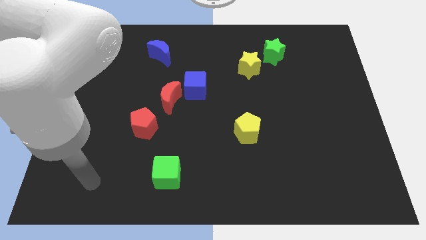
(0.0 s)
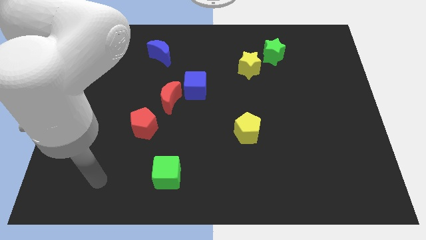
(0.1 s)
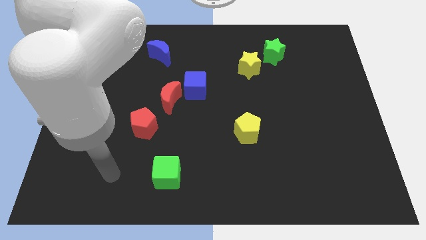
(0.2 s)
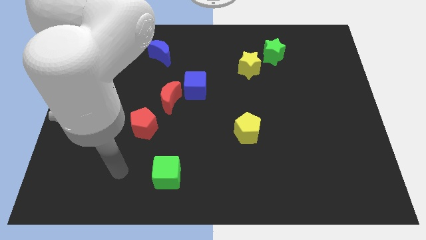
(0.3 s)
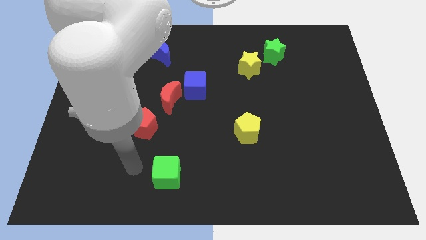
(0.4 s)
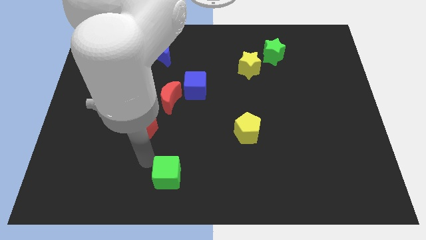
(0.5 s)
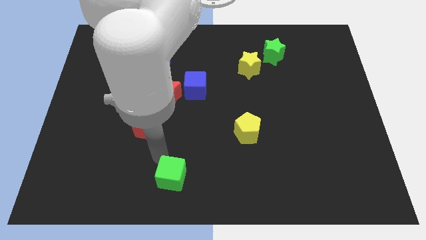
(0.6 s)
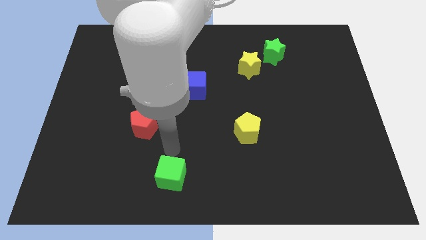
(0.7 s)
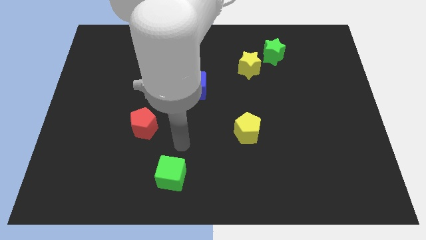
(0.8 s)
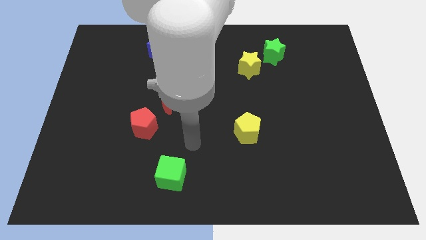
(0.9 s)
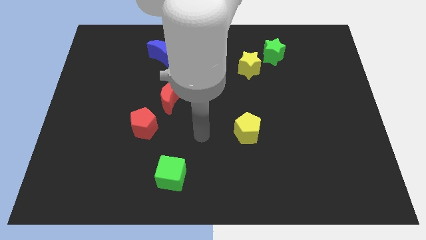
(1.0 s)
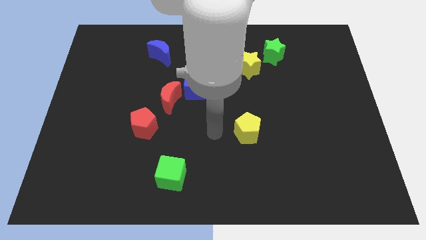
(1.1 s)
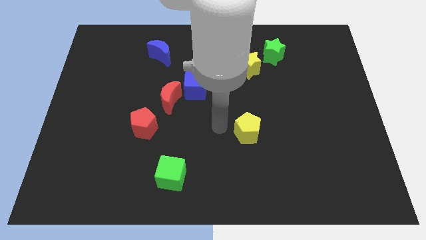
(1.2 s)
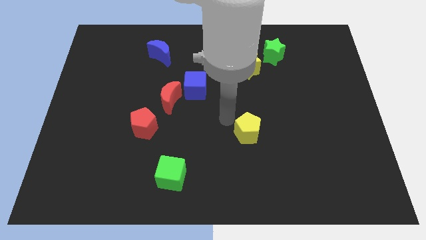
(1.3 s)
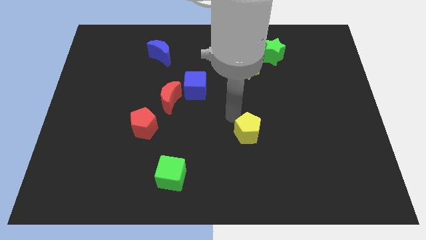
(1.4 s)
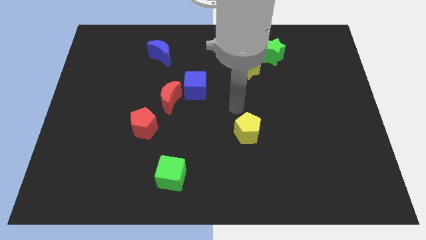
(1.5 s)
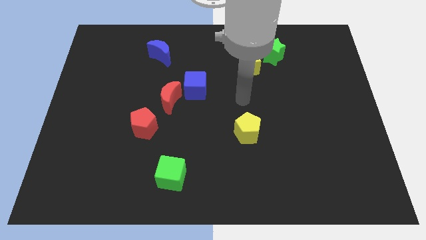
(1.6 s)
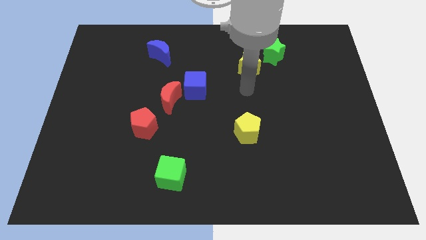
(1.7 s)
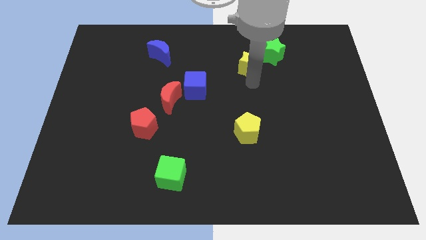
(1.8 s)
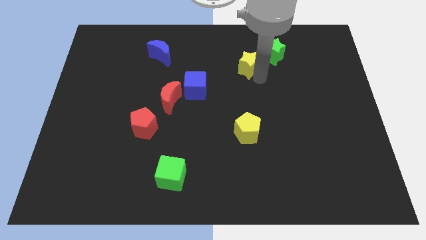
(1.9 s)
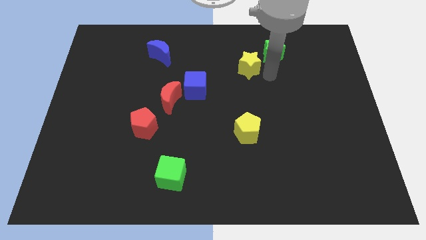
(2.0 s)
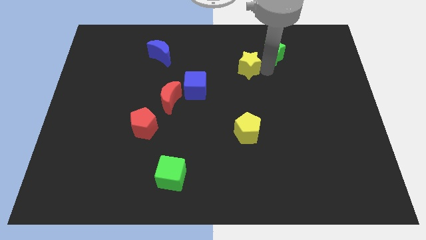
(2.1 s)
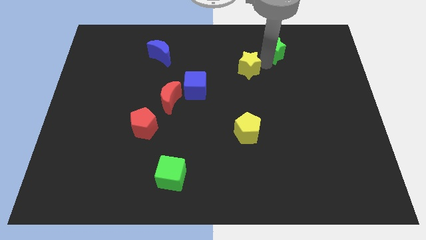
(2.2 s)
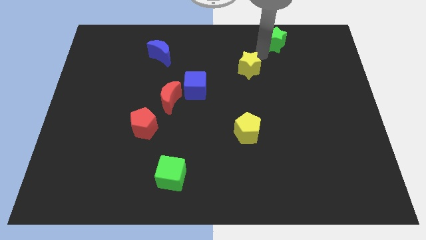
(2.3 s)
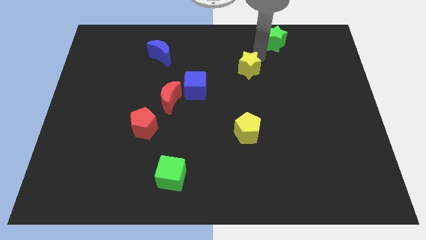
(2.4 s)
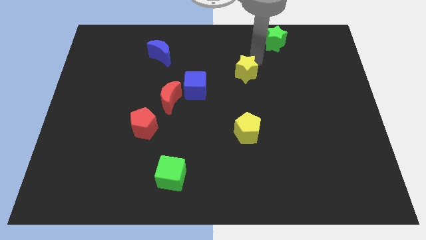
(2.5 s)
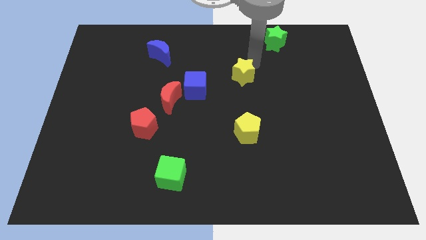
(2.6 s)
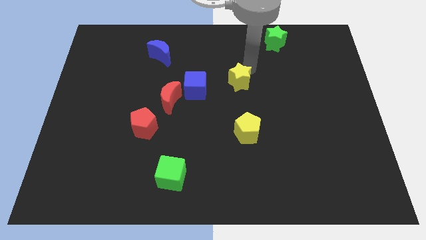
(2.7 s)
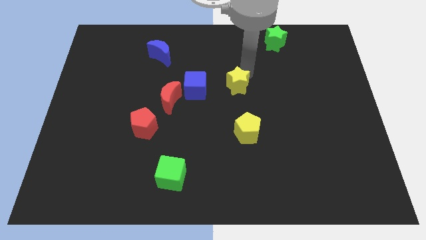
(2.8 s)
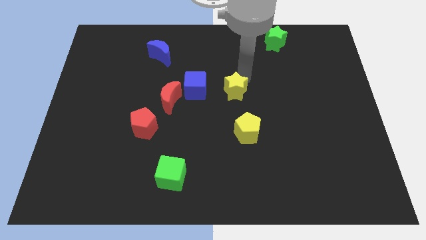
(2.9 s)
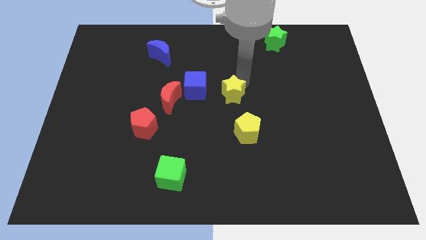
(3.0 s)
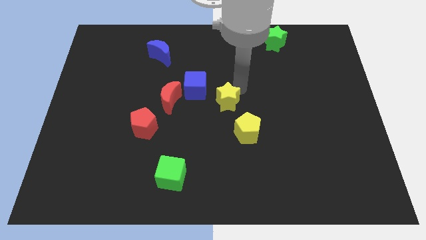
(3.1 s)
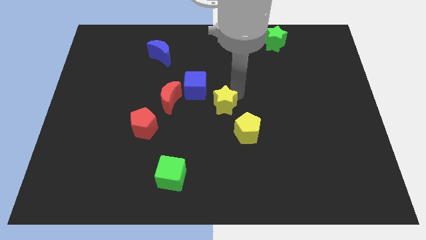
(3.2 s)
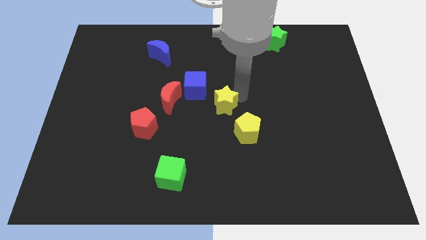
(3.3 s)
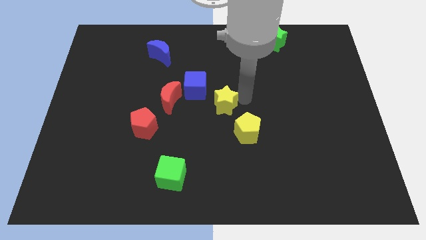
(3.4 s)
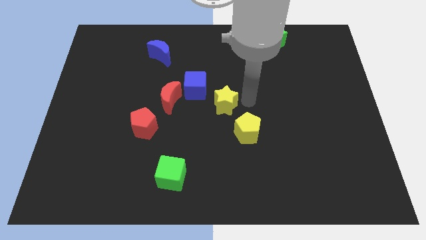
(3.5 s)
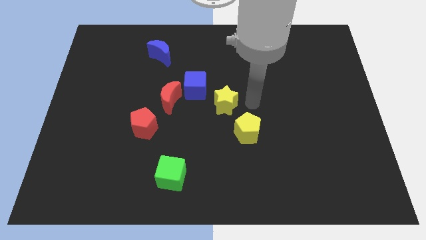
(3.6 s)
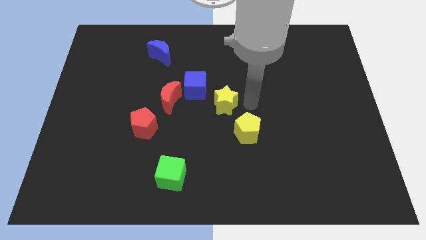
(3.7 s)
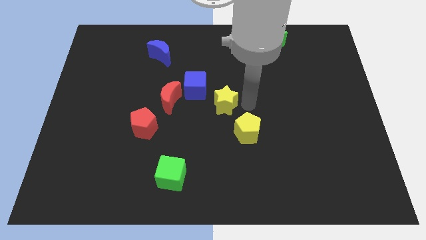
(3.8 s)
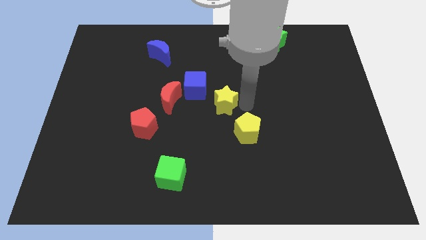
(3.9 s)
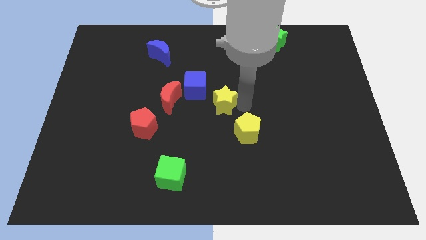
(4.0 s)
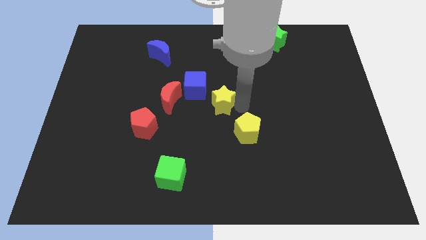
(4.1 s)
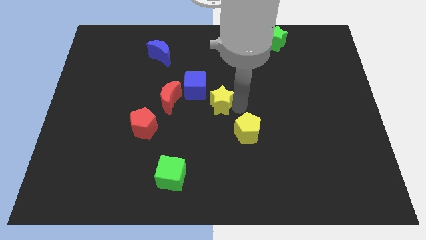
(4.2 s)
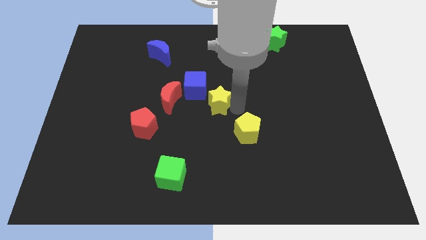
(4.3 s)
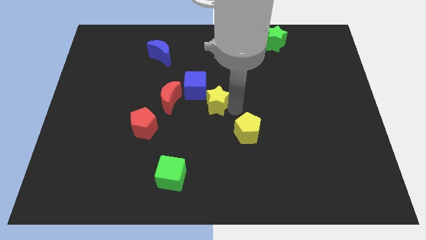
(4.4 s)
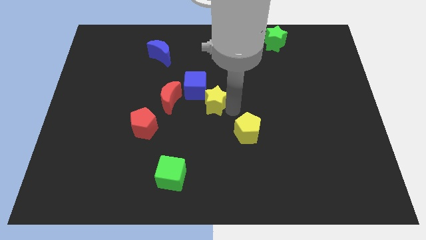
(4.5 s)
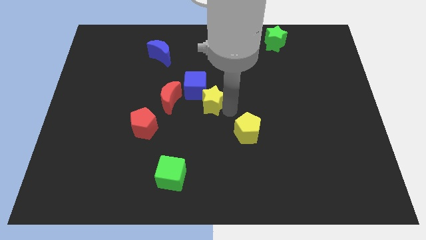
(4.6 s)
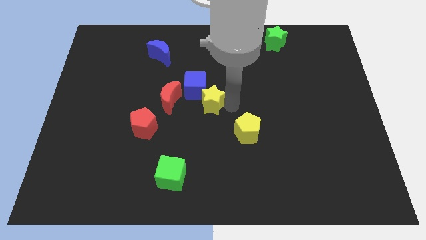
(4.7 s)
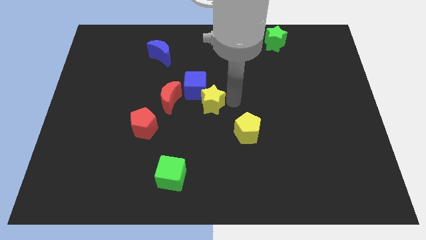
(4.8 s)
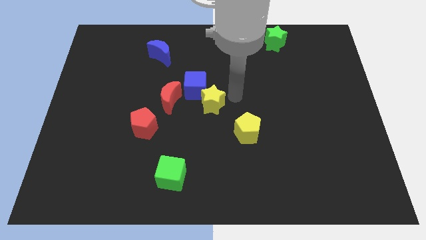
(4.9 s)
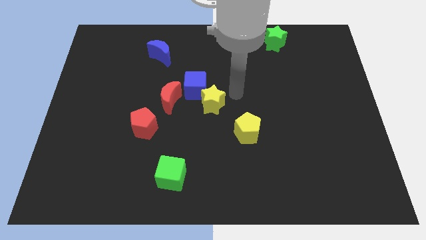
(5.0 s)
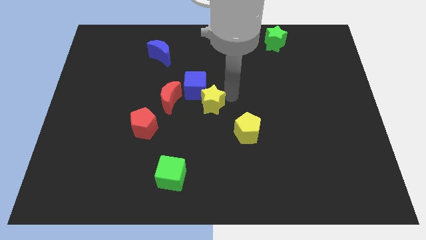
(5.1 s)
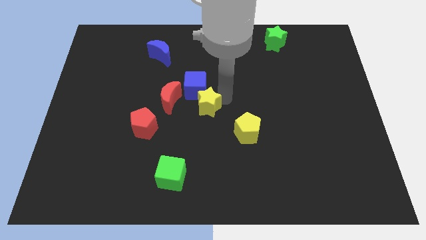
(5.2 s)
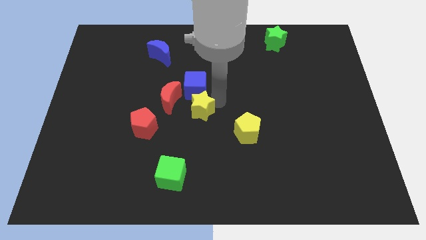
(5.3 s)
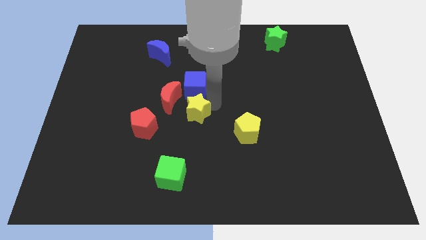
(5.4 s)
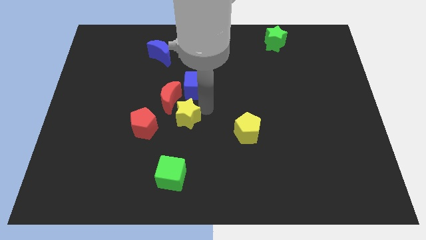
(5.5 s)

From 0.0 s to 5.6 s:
slide the yellow star down and then left

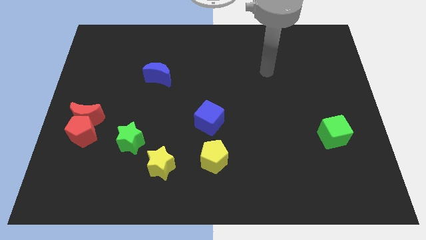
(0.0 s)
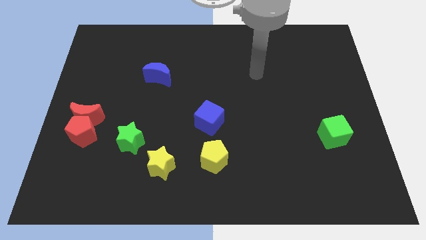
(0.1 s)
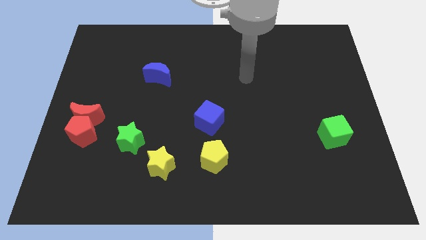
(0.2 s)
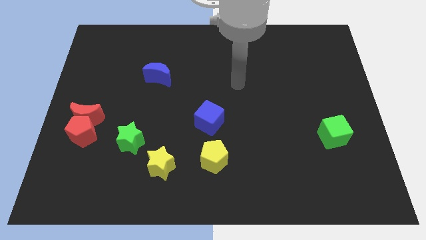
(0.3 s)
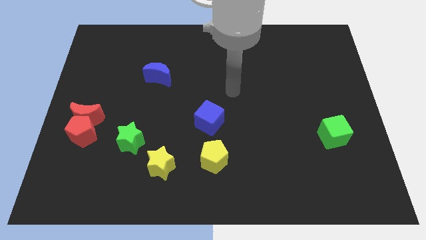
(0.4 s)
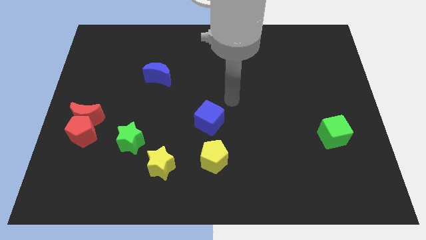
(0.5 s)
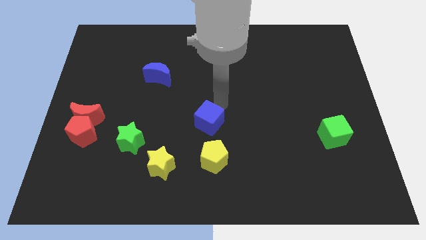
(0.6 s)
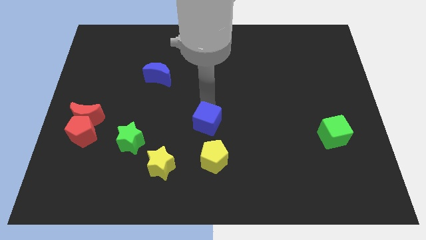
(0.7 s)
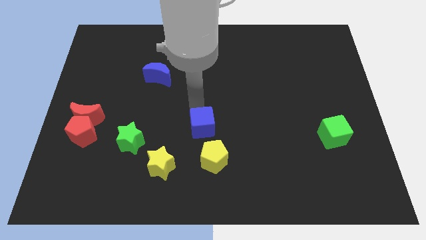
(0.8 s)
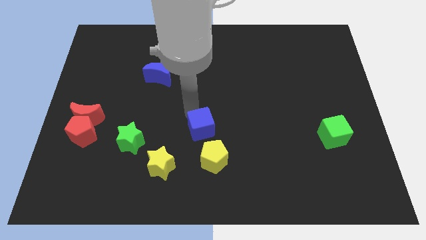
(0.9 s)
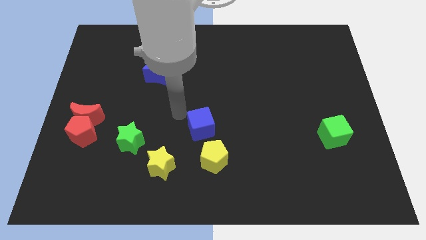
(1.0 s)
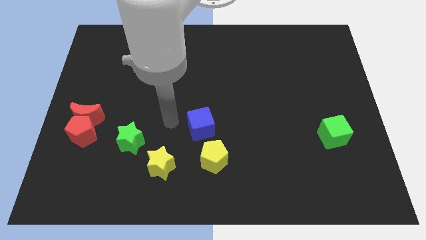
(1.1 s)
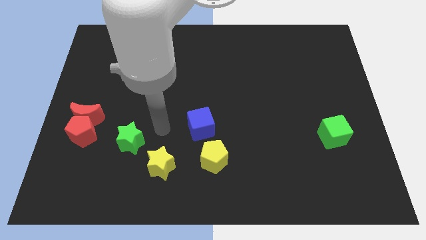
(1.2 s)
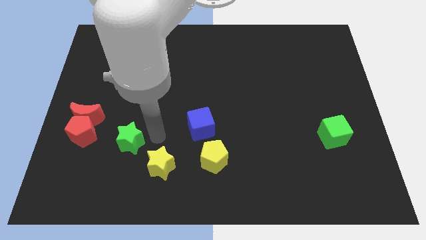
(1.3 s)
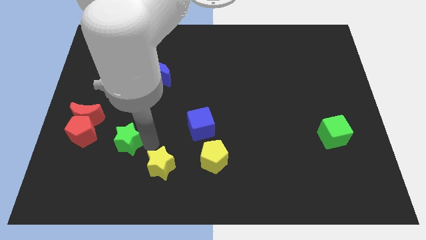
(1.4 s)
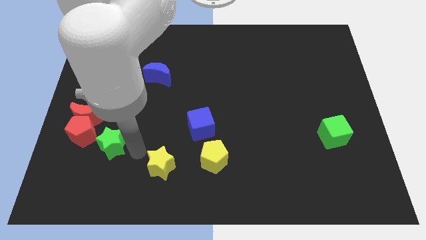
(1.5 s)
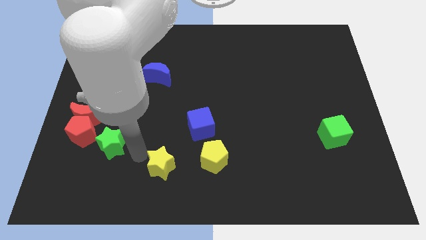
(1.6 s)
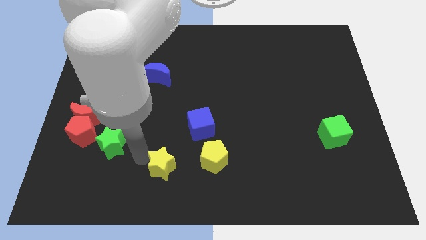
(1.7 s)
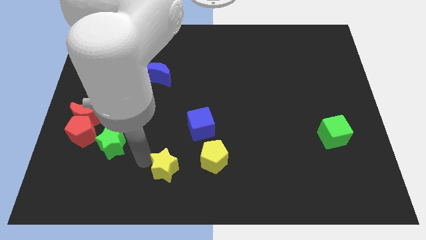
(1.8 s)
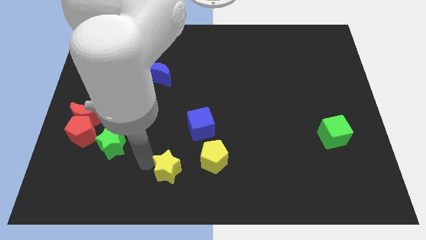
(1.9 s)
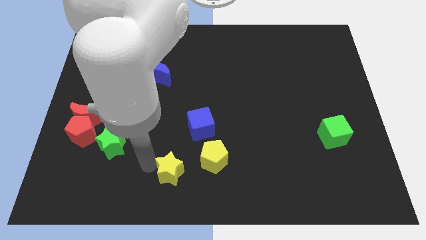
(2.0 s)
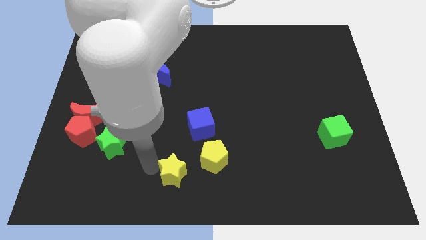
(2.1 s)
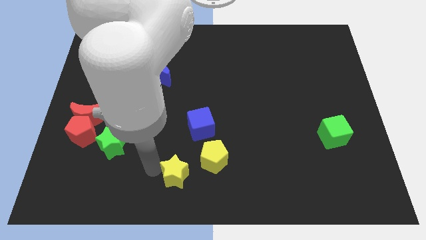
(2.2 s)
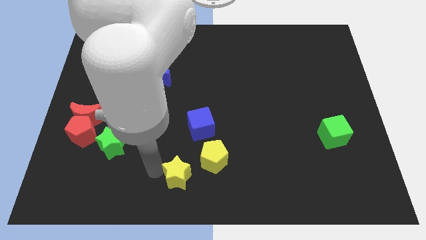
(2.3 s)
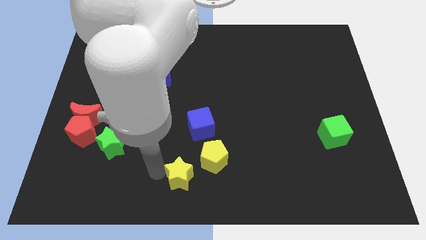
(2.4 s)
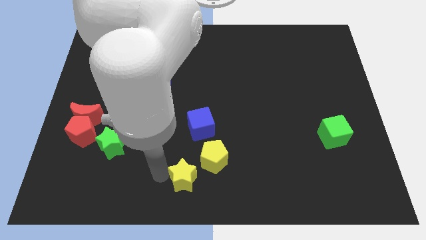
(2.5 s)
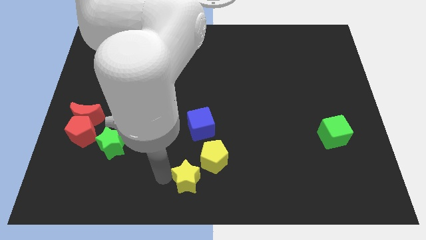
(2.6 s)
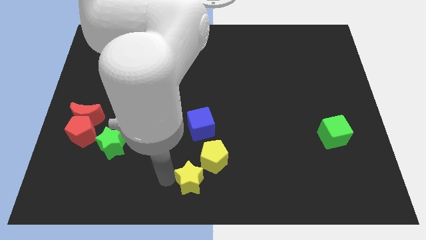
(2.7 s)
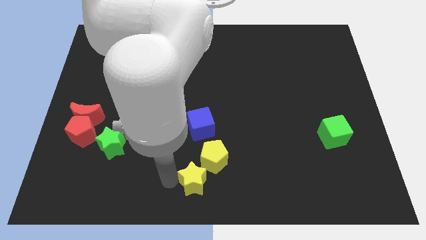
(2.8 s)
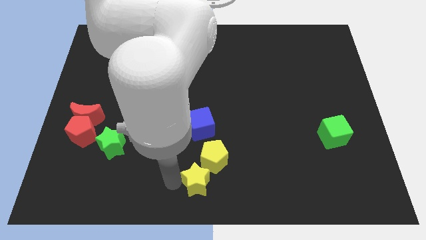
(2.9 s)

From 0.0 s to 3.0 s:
push the yellow star to the right a little
